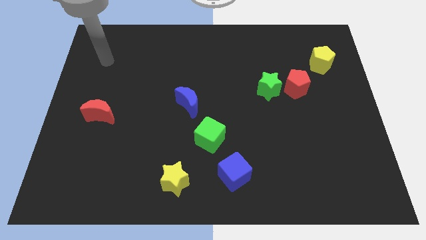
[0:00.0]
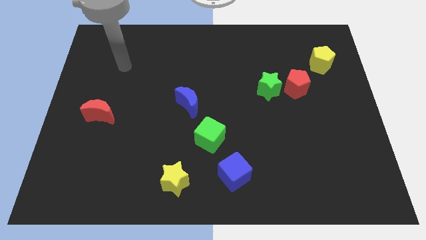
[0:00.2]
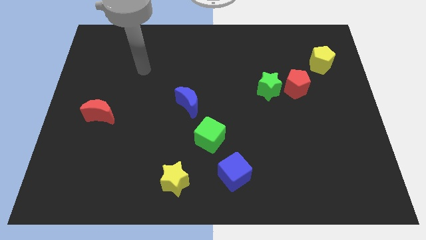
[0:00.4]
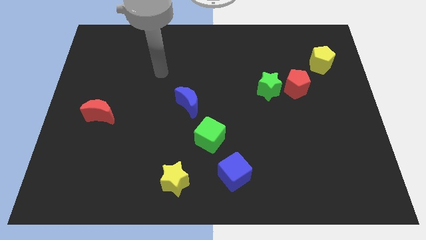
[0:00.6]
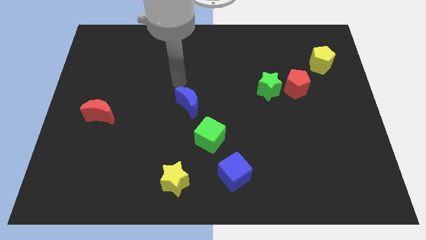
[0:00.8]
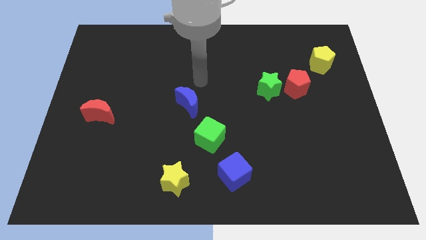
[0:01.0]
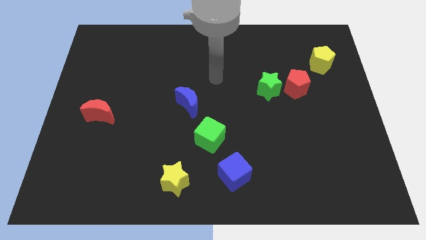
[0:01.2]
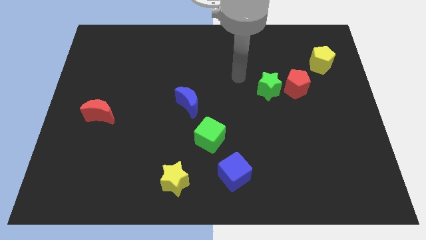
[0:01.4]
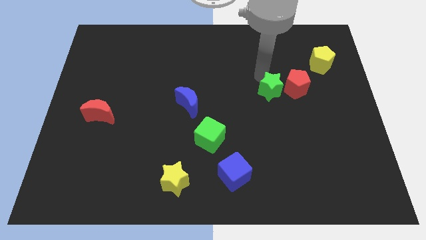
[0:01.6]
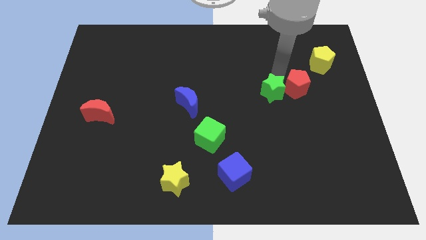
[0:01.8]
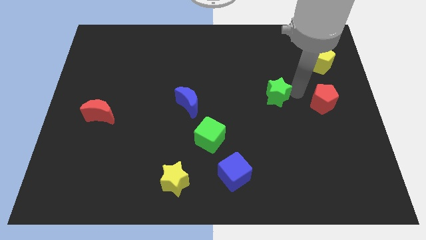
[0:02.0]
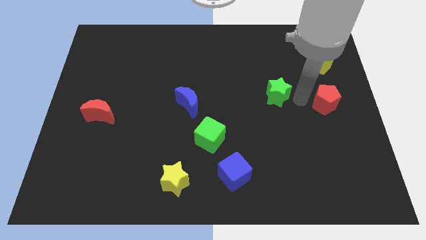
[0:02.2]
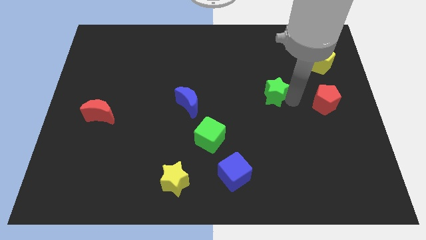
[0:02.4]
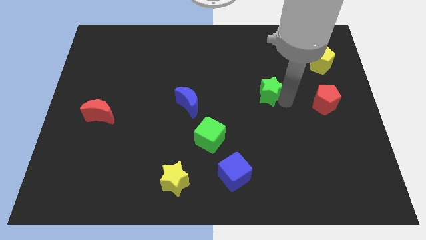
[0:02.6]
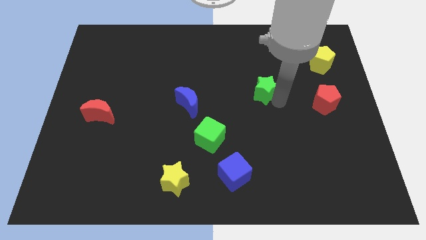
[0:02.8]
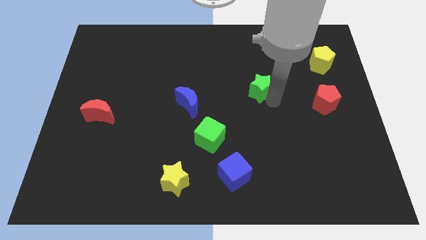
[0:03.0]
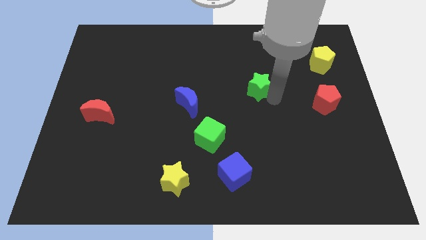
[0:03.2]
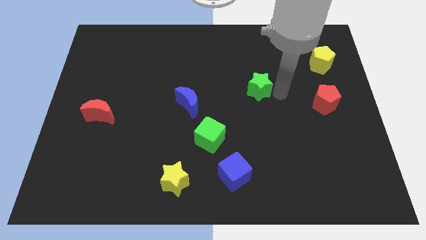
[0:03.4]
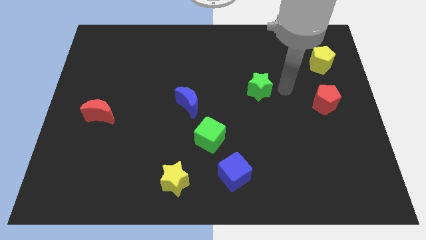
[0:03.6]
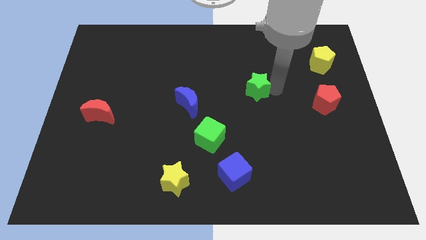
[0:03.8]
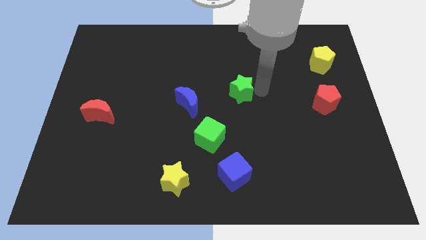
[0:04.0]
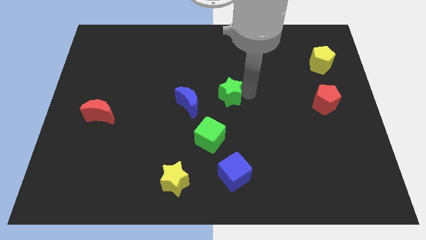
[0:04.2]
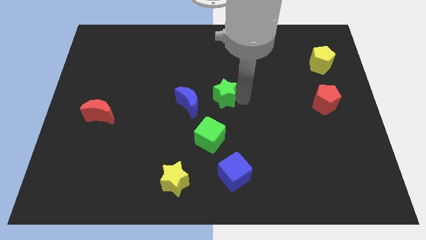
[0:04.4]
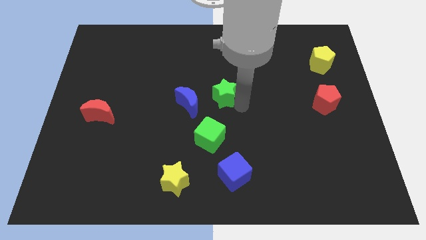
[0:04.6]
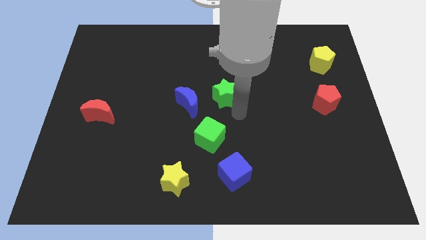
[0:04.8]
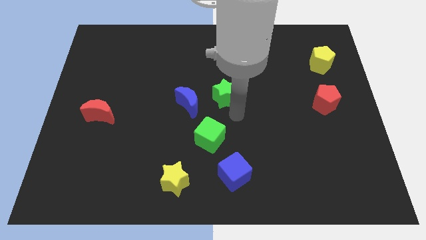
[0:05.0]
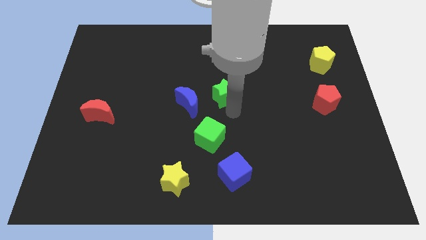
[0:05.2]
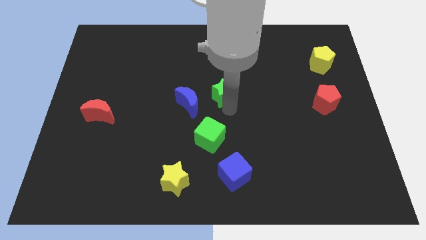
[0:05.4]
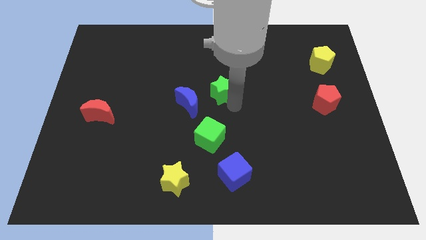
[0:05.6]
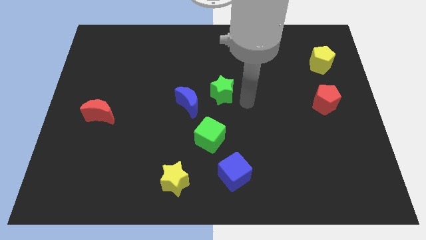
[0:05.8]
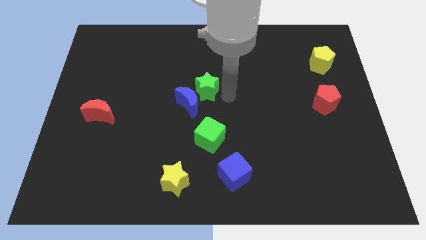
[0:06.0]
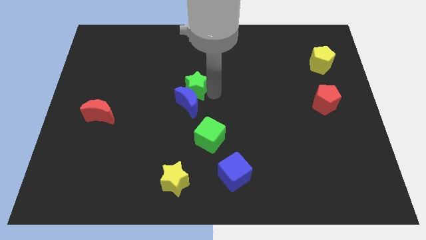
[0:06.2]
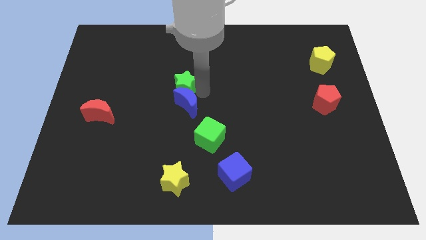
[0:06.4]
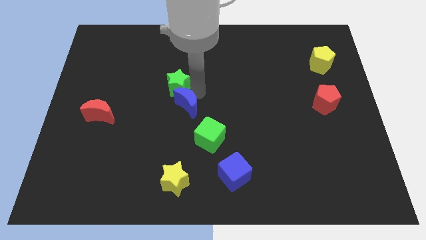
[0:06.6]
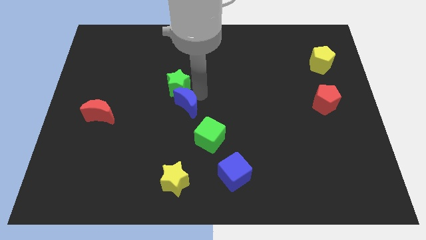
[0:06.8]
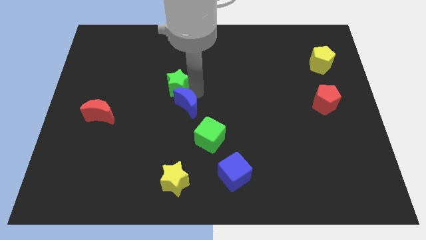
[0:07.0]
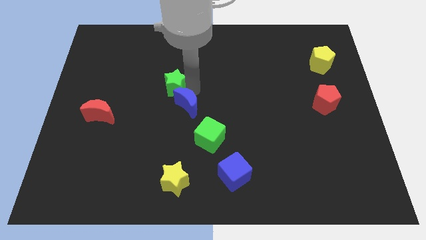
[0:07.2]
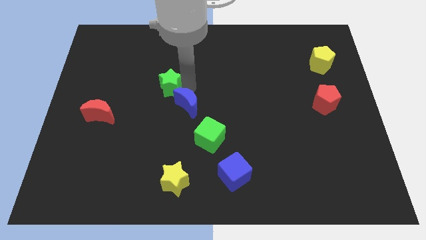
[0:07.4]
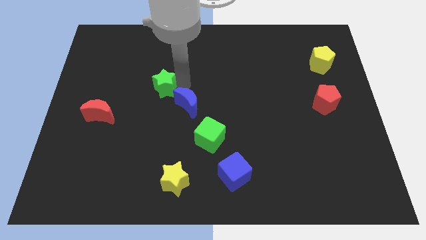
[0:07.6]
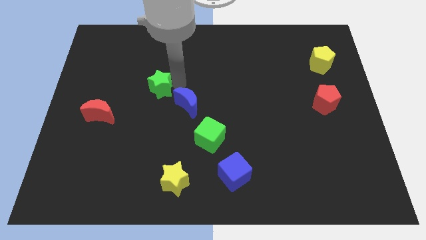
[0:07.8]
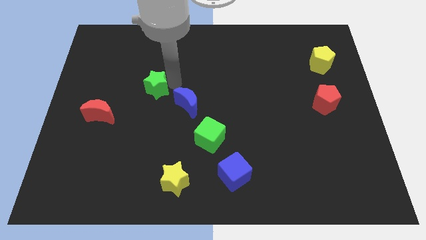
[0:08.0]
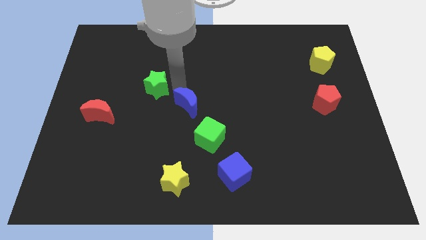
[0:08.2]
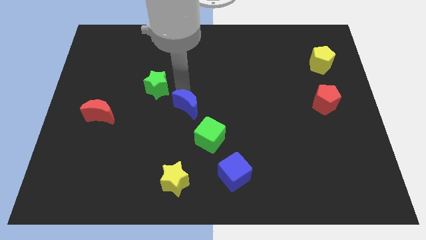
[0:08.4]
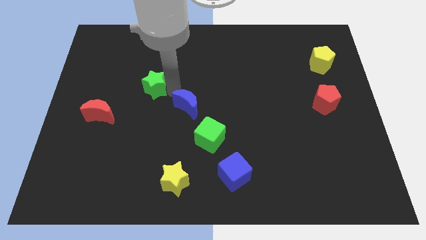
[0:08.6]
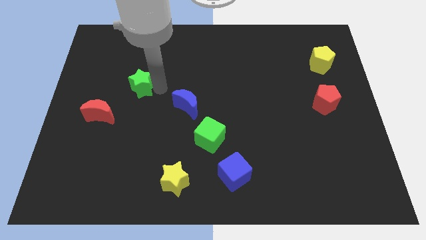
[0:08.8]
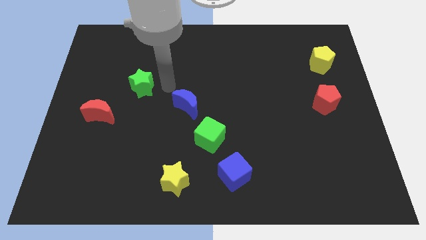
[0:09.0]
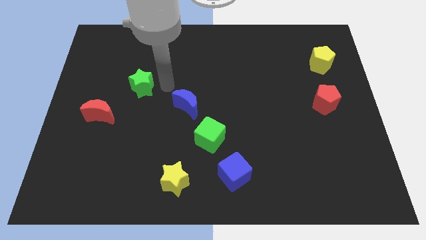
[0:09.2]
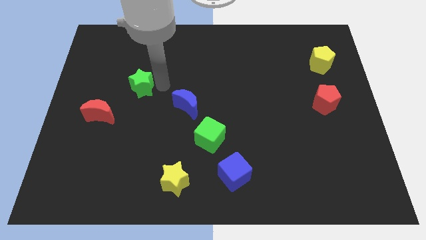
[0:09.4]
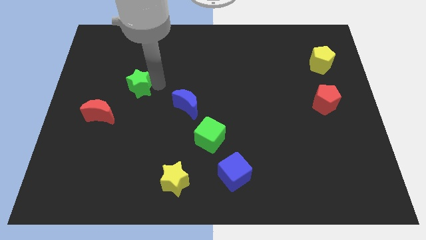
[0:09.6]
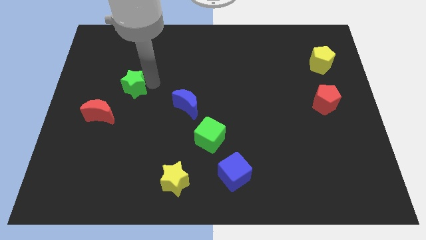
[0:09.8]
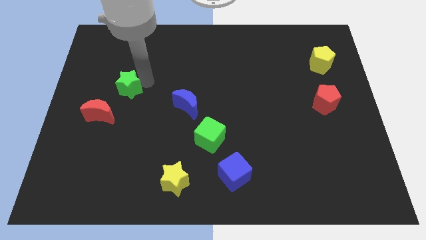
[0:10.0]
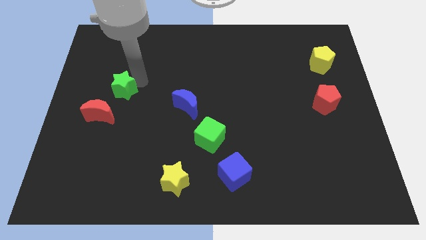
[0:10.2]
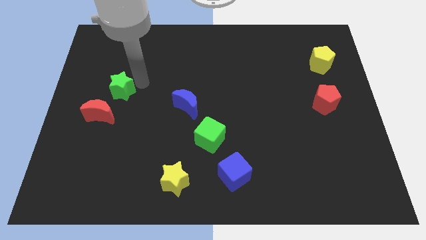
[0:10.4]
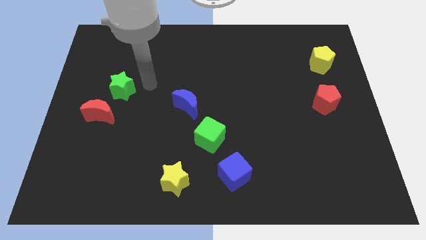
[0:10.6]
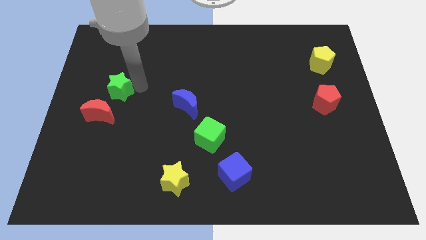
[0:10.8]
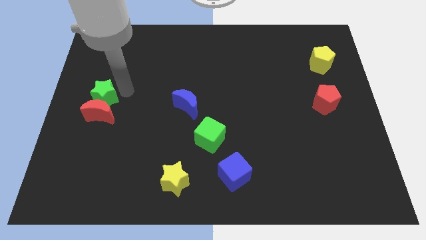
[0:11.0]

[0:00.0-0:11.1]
push the green star to the left side

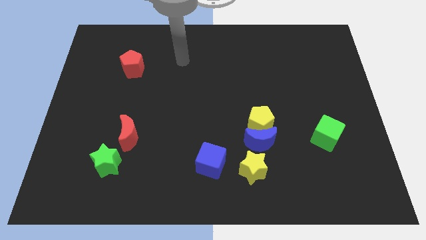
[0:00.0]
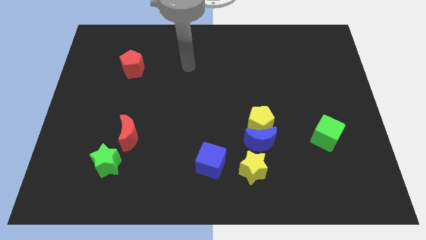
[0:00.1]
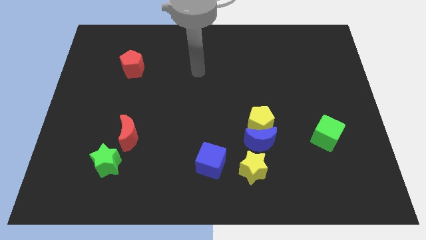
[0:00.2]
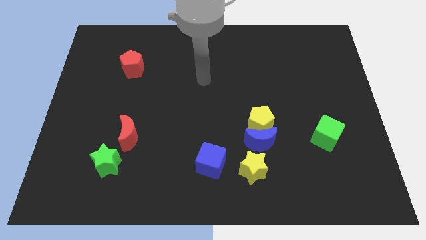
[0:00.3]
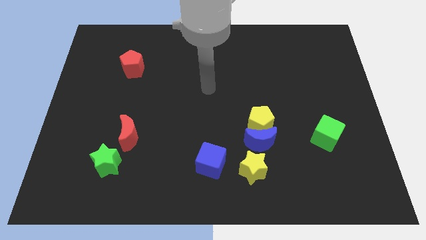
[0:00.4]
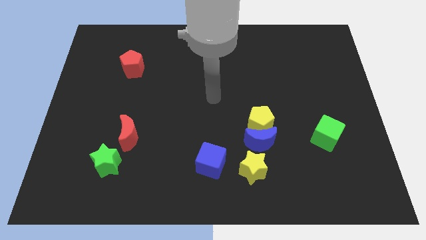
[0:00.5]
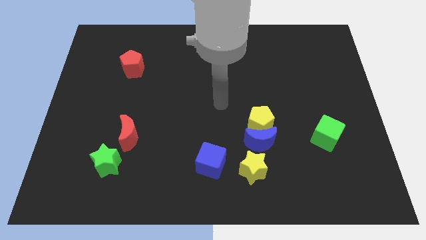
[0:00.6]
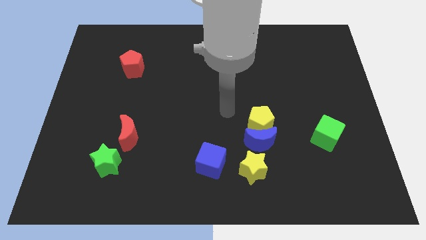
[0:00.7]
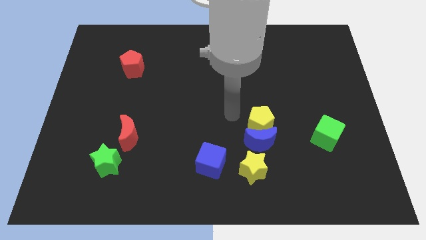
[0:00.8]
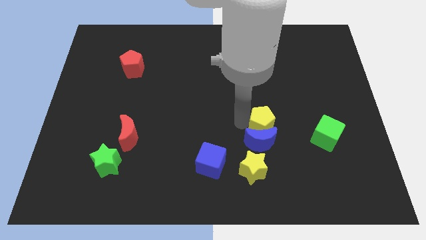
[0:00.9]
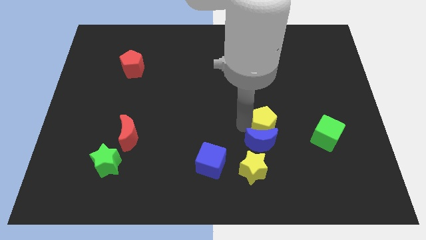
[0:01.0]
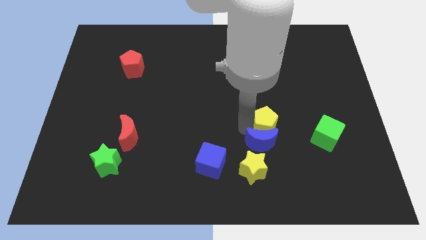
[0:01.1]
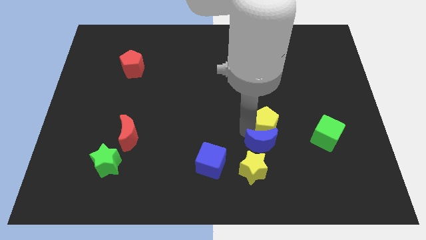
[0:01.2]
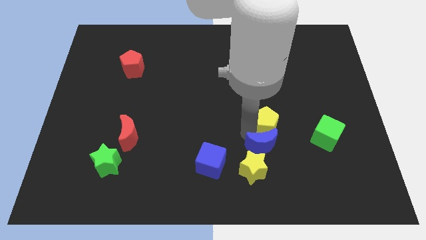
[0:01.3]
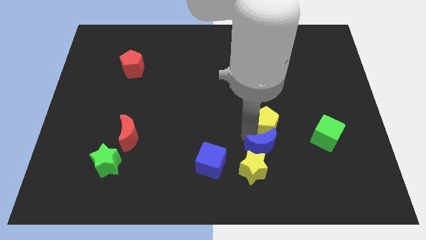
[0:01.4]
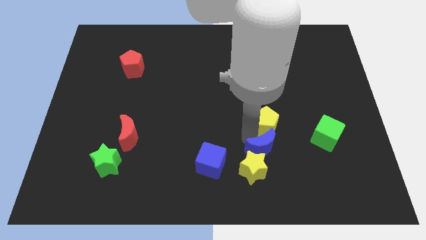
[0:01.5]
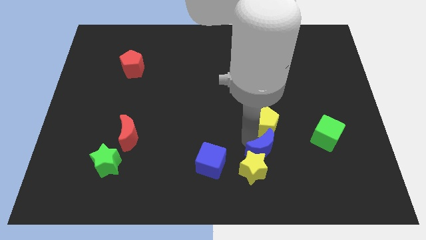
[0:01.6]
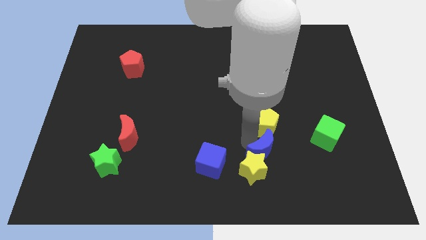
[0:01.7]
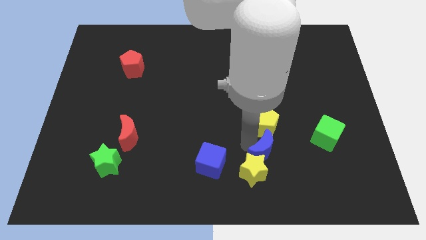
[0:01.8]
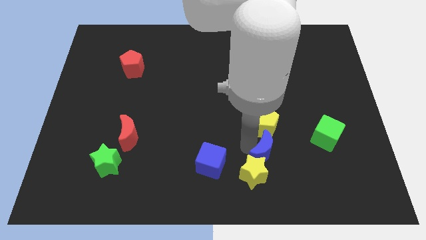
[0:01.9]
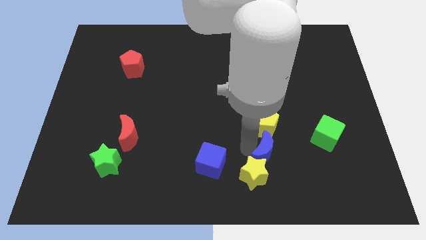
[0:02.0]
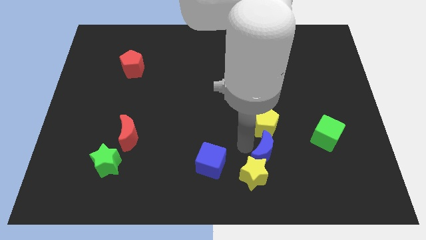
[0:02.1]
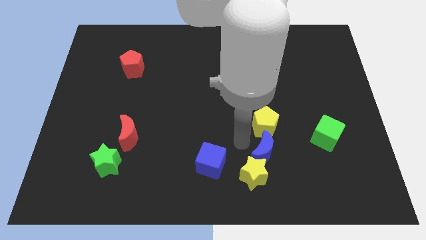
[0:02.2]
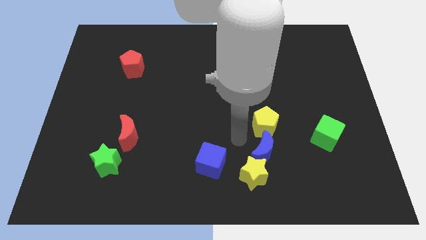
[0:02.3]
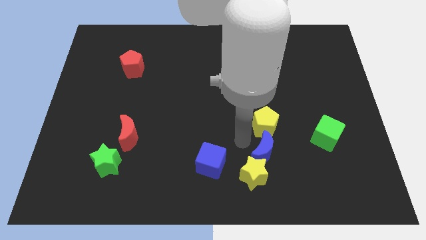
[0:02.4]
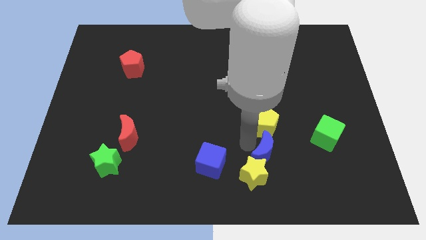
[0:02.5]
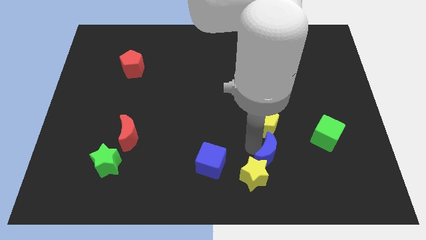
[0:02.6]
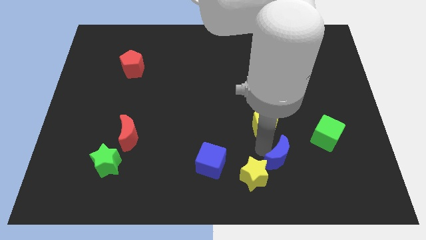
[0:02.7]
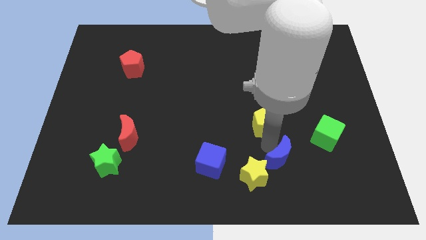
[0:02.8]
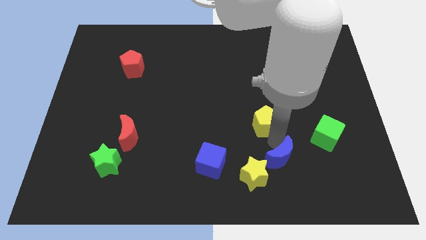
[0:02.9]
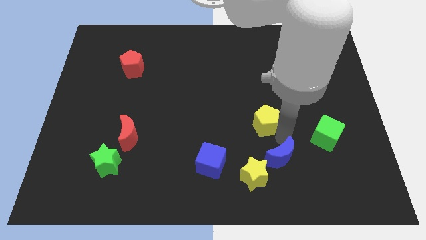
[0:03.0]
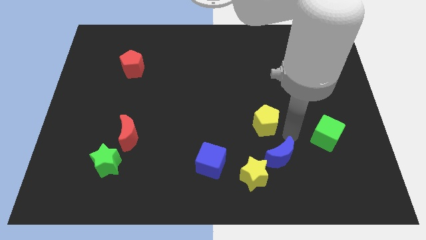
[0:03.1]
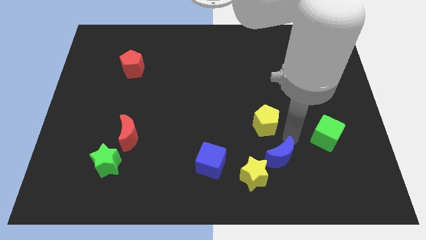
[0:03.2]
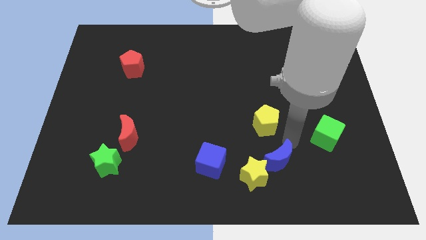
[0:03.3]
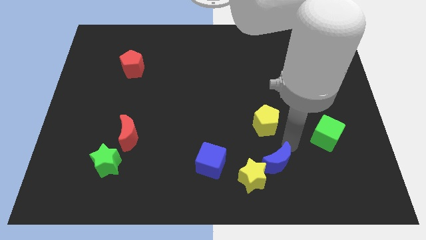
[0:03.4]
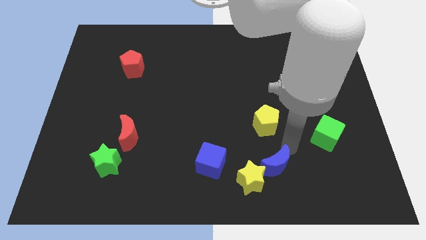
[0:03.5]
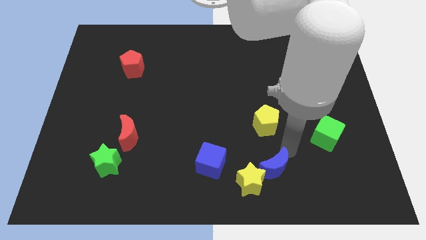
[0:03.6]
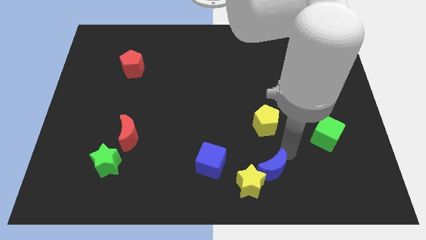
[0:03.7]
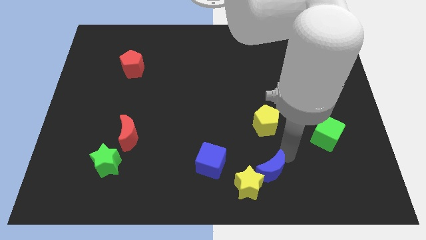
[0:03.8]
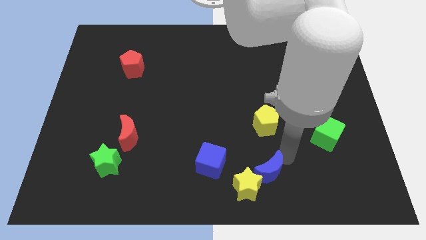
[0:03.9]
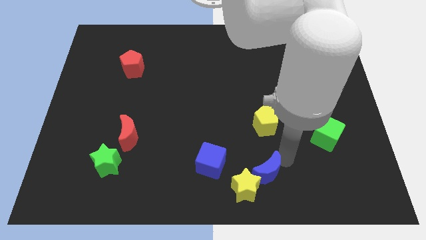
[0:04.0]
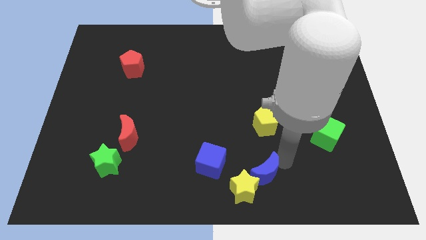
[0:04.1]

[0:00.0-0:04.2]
put the blue moon to the bottom side
